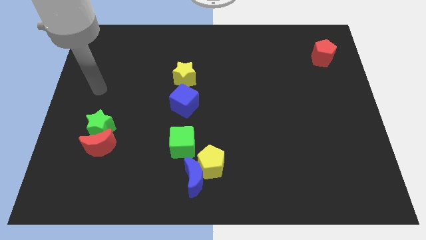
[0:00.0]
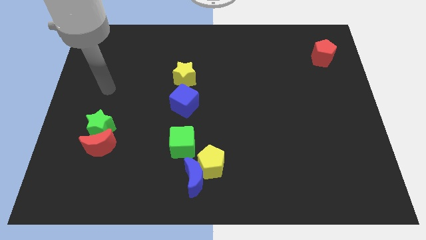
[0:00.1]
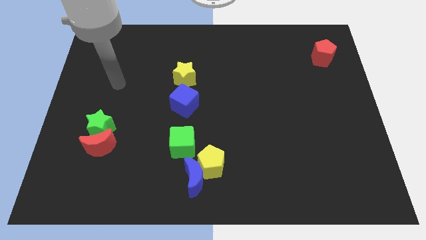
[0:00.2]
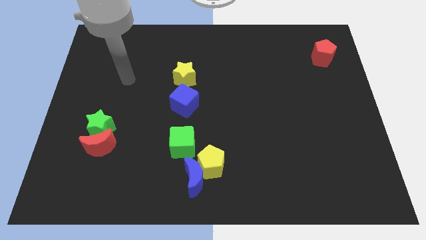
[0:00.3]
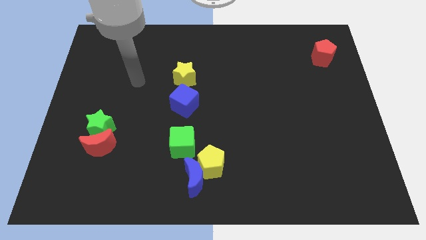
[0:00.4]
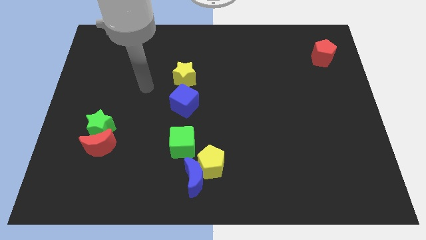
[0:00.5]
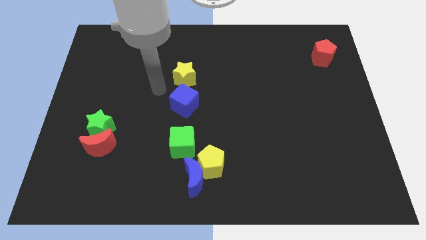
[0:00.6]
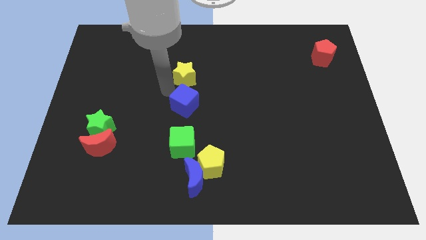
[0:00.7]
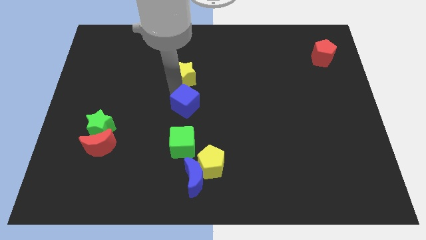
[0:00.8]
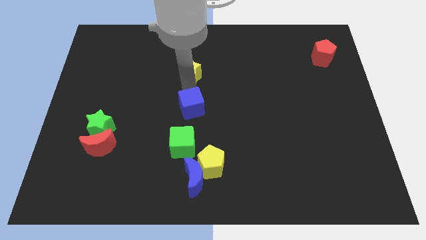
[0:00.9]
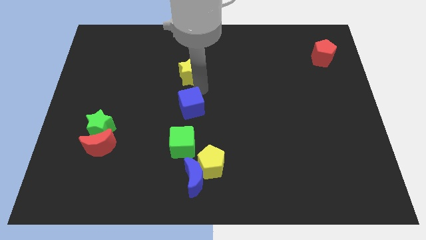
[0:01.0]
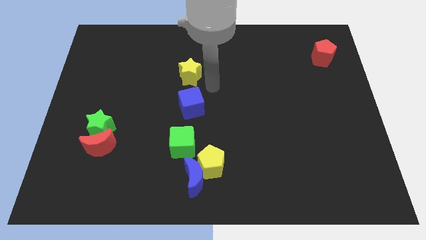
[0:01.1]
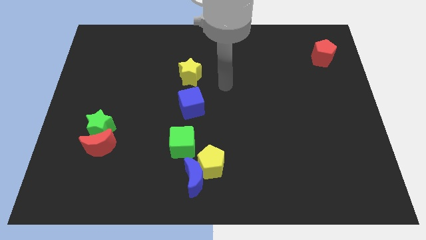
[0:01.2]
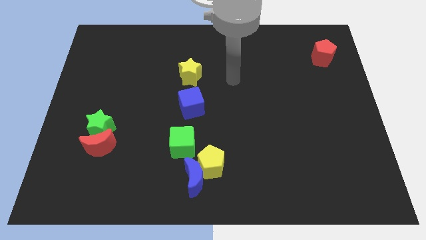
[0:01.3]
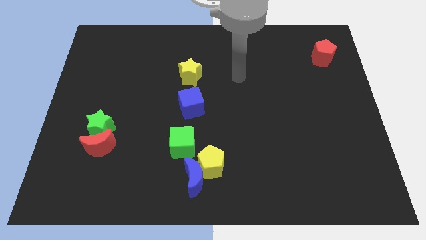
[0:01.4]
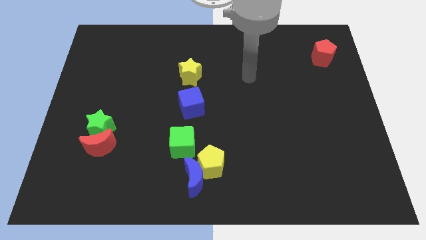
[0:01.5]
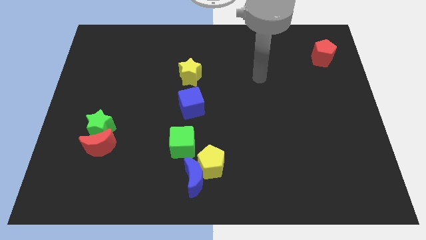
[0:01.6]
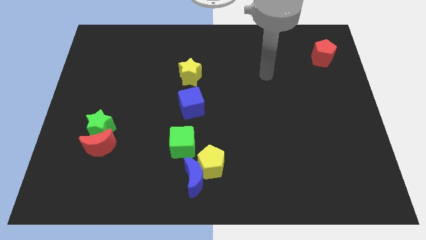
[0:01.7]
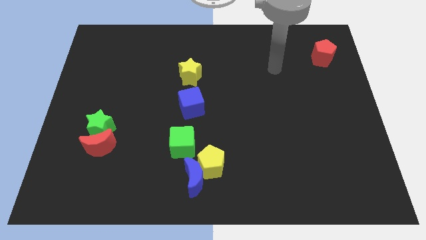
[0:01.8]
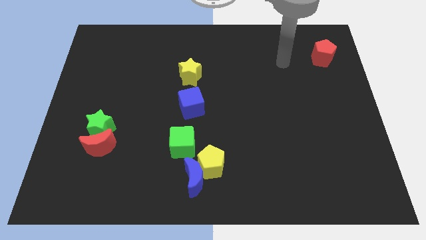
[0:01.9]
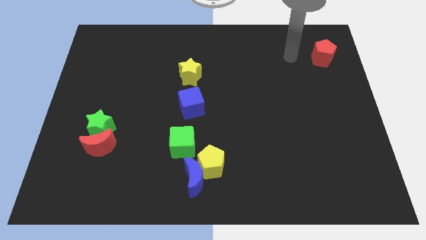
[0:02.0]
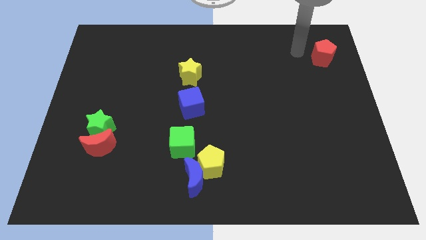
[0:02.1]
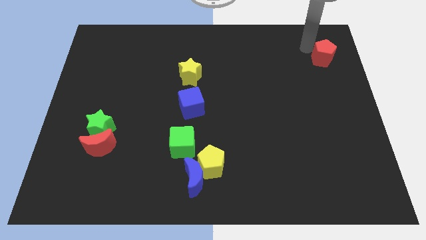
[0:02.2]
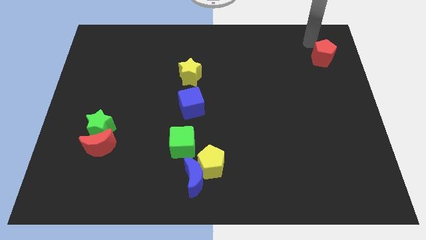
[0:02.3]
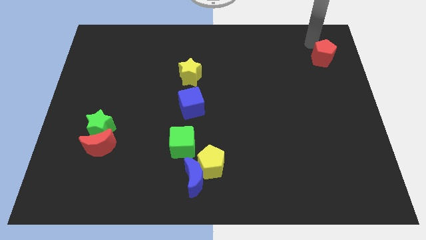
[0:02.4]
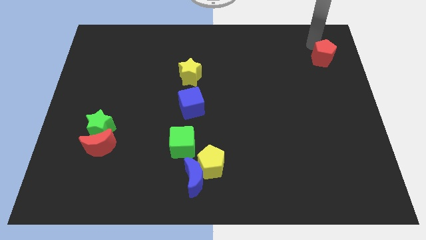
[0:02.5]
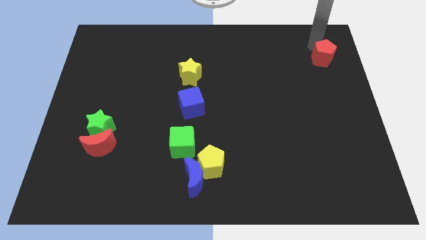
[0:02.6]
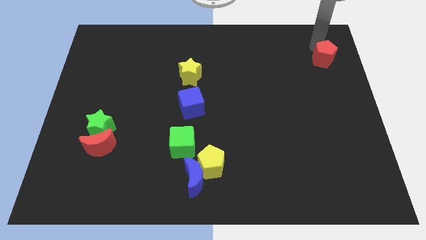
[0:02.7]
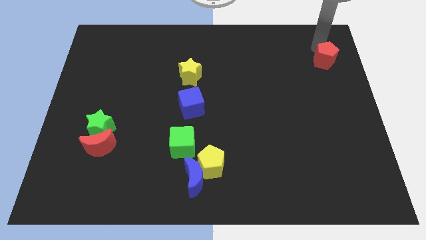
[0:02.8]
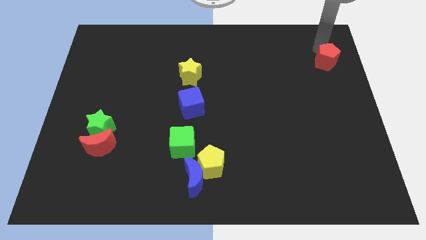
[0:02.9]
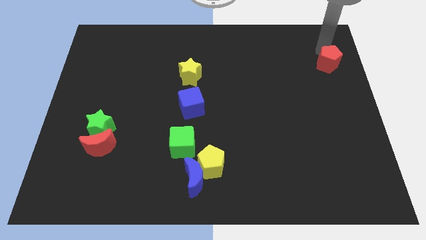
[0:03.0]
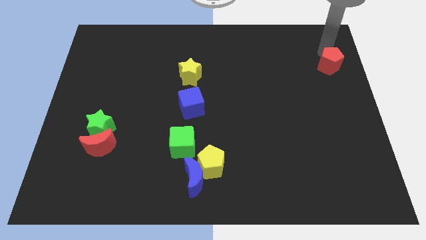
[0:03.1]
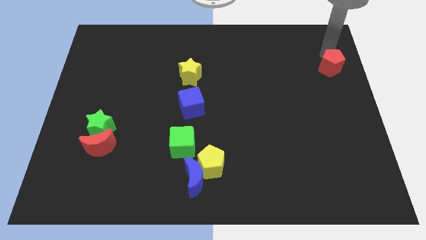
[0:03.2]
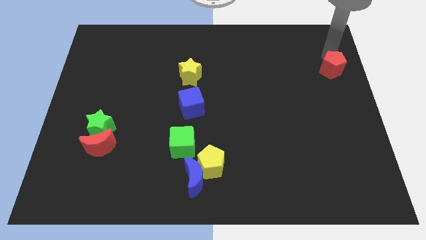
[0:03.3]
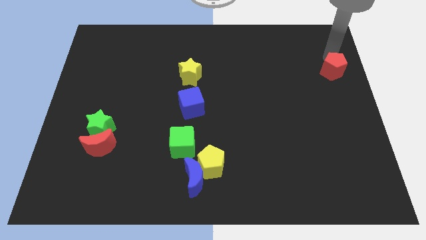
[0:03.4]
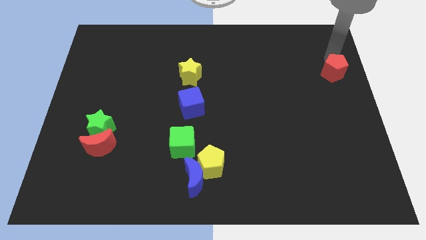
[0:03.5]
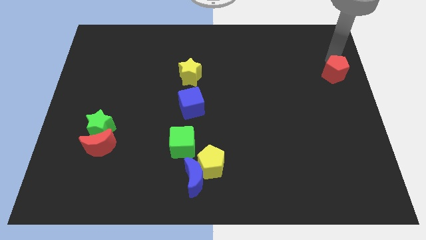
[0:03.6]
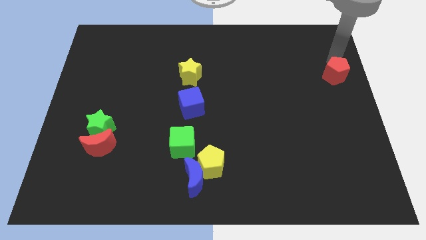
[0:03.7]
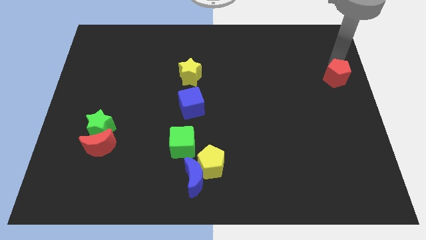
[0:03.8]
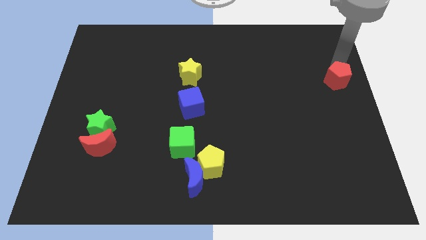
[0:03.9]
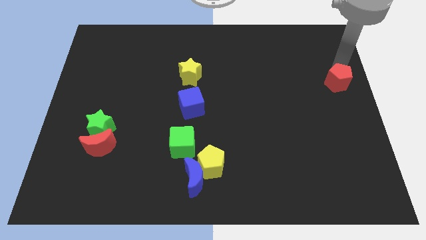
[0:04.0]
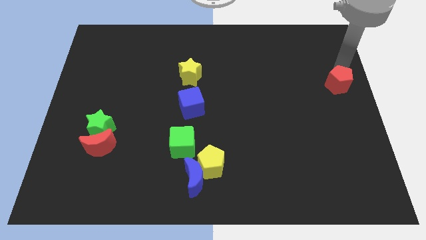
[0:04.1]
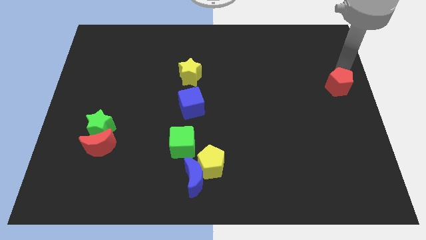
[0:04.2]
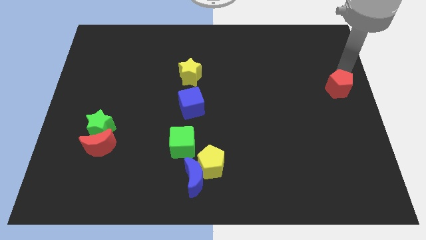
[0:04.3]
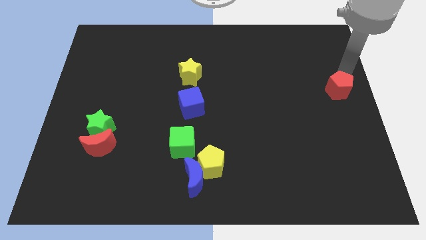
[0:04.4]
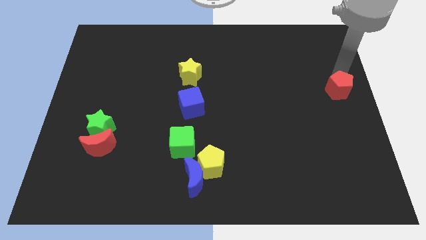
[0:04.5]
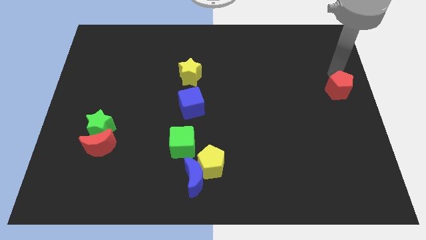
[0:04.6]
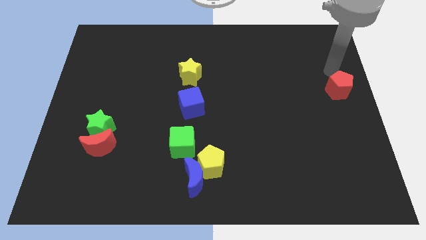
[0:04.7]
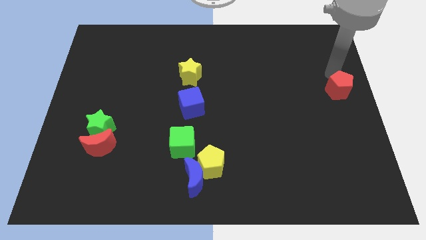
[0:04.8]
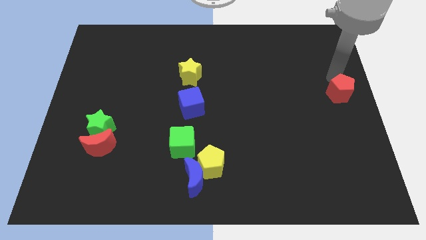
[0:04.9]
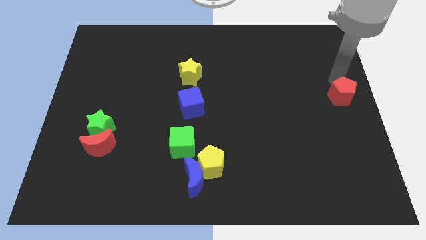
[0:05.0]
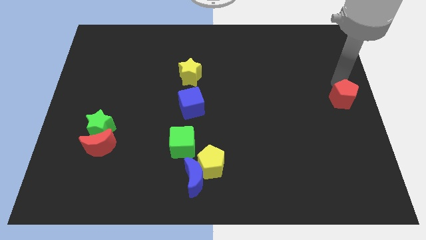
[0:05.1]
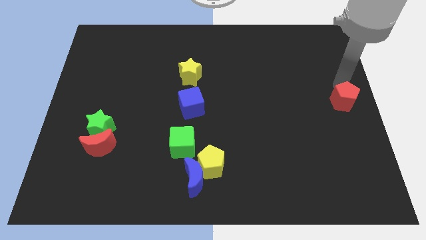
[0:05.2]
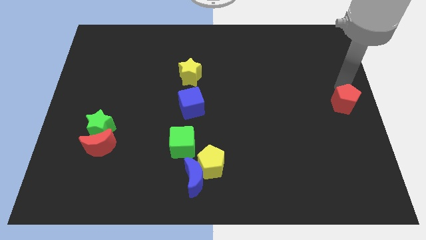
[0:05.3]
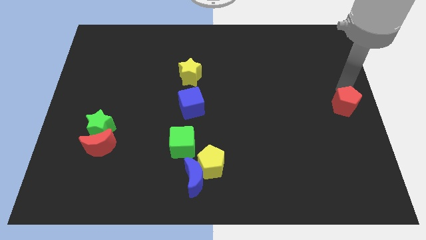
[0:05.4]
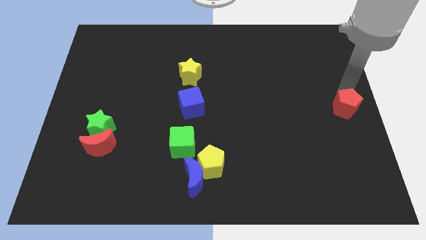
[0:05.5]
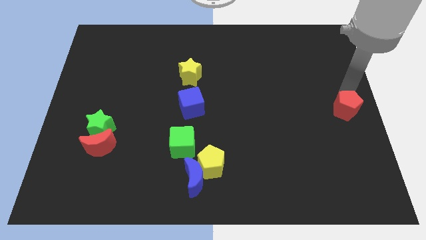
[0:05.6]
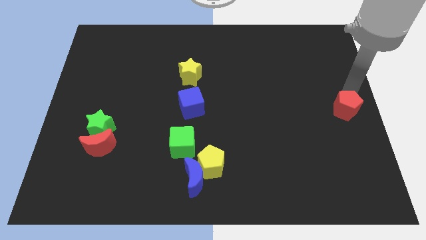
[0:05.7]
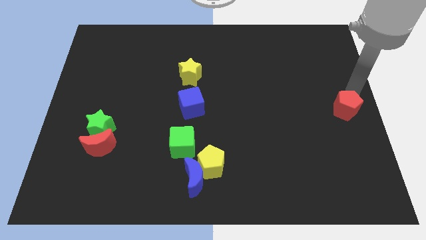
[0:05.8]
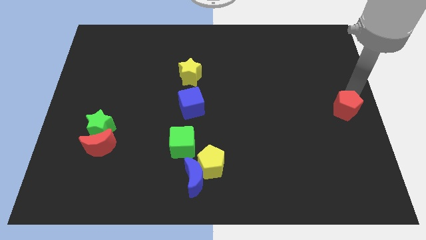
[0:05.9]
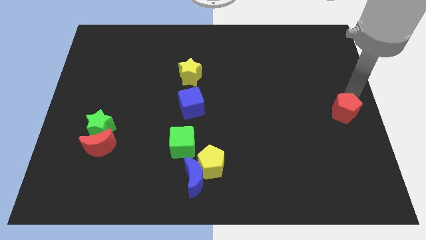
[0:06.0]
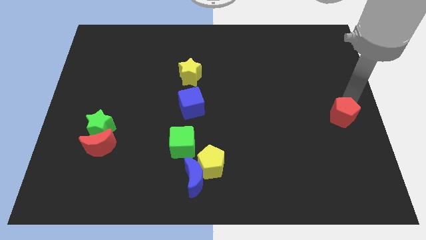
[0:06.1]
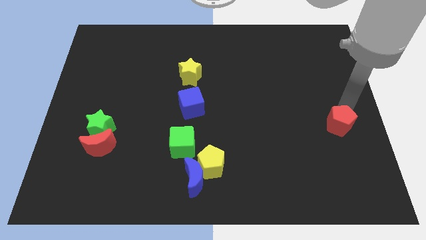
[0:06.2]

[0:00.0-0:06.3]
push the red pentagon downwards

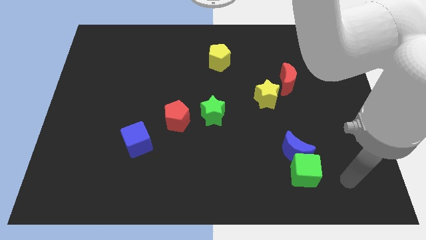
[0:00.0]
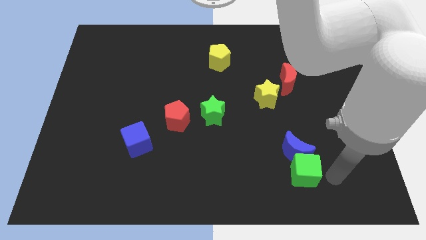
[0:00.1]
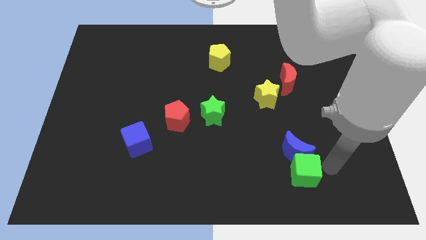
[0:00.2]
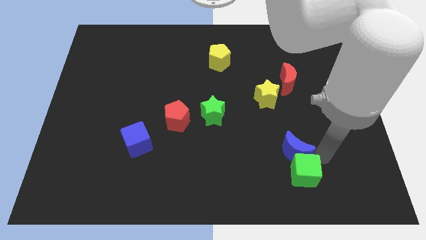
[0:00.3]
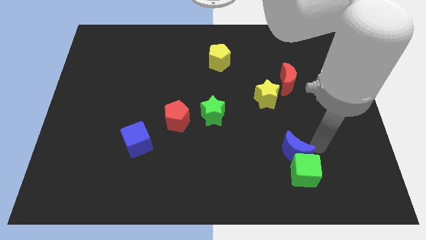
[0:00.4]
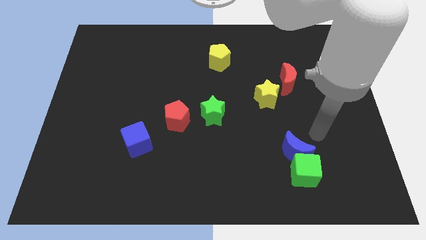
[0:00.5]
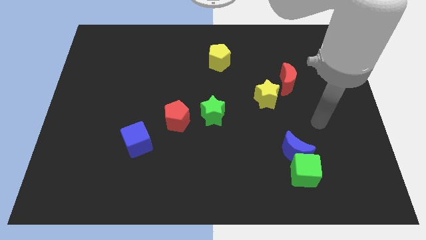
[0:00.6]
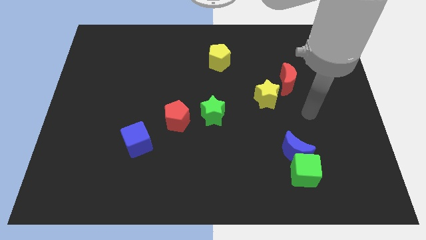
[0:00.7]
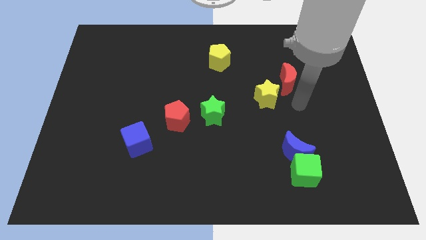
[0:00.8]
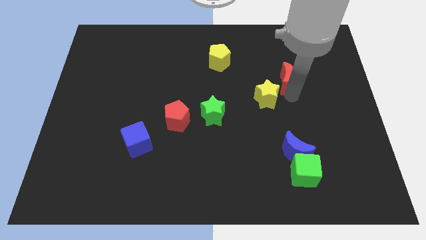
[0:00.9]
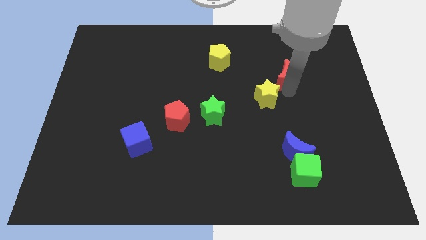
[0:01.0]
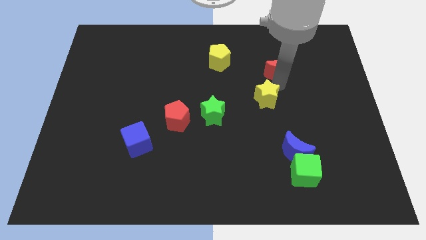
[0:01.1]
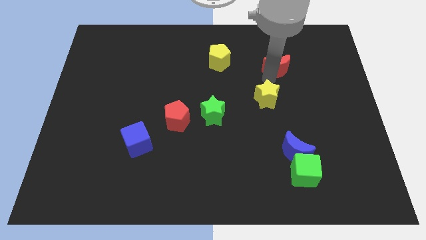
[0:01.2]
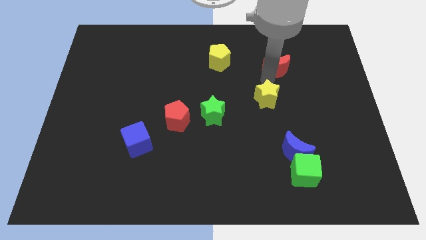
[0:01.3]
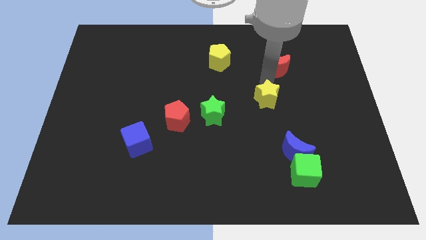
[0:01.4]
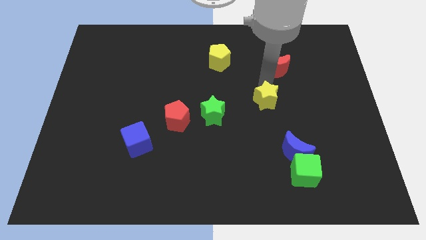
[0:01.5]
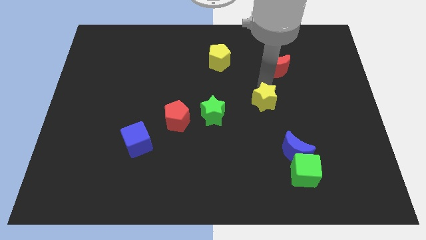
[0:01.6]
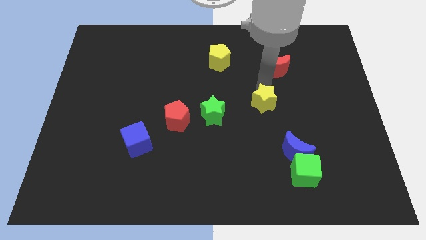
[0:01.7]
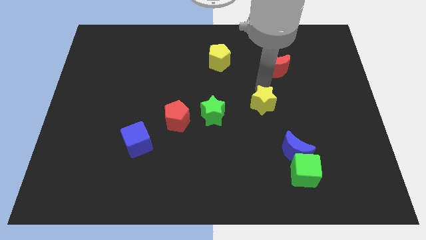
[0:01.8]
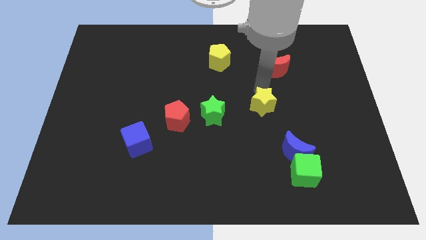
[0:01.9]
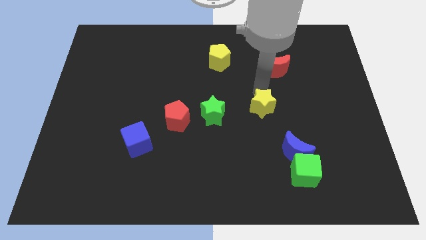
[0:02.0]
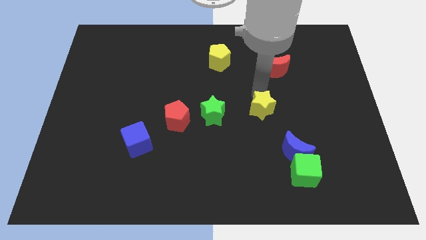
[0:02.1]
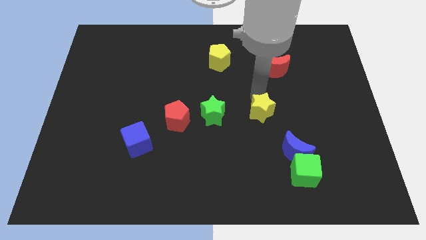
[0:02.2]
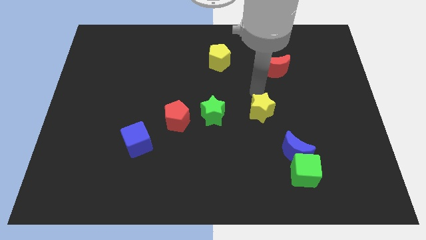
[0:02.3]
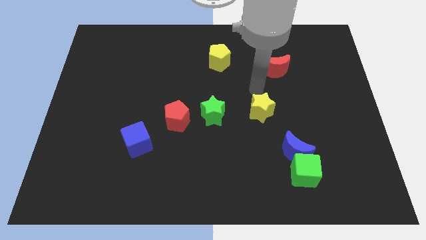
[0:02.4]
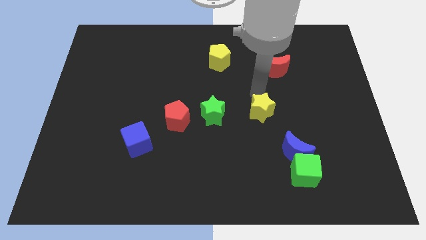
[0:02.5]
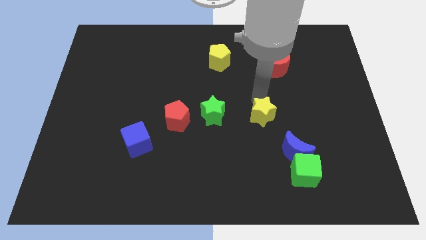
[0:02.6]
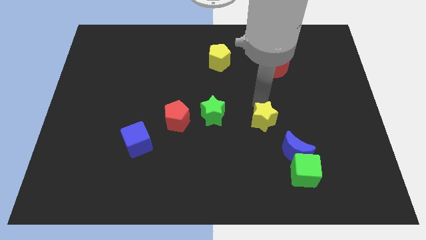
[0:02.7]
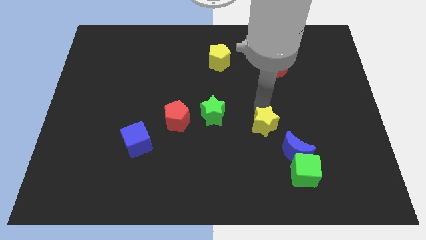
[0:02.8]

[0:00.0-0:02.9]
push the yellow star downwards a bit
